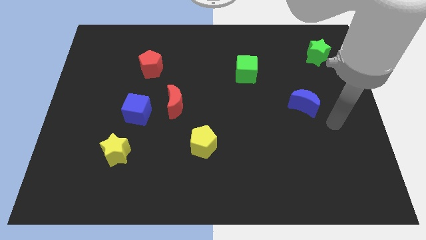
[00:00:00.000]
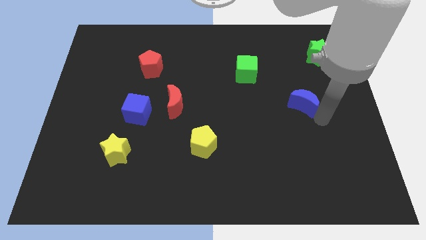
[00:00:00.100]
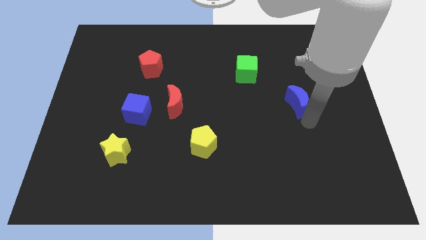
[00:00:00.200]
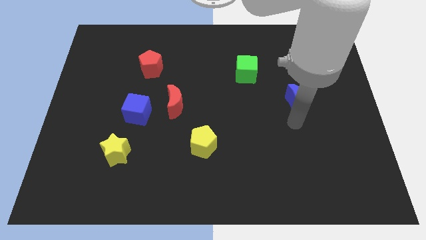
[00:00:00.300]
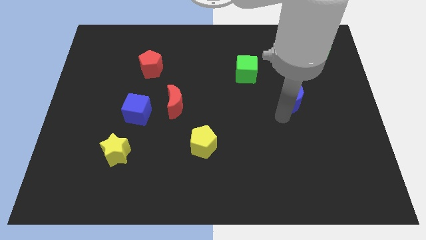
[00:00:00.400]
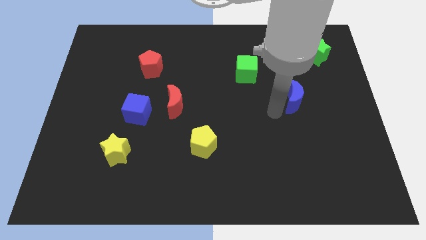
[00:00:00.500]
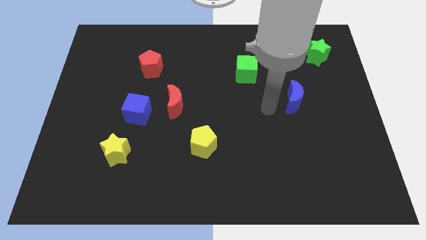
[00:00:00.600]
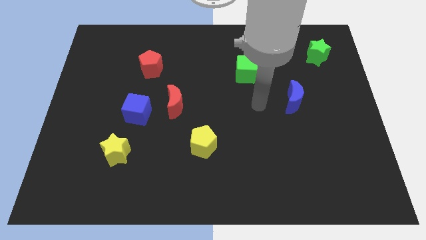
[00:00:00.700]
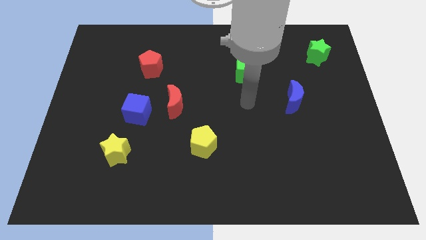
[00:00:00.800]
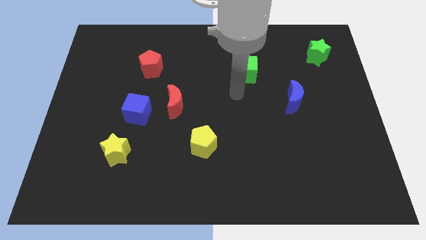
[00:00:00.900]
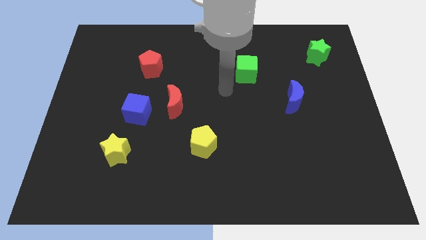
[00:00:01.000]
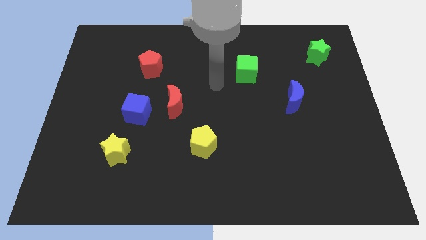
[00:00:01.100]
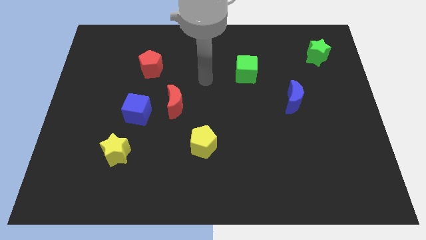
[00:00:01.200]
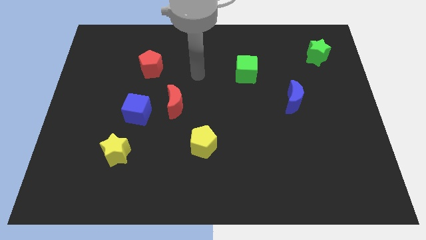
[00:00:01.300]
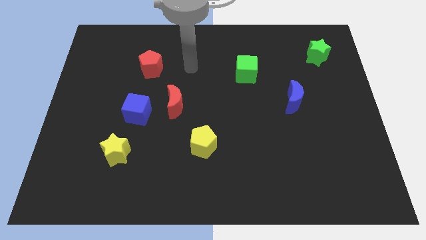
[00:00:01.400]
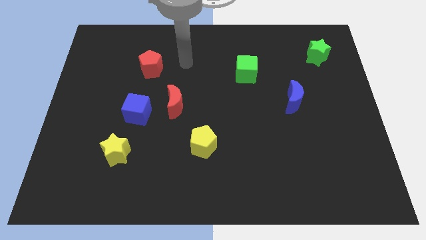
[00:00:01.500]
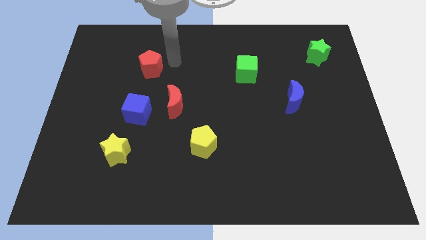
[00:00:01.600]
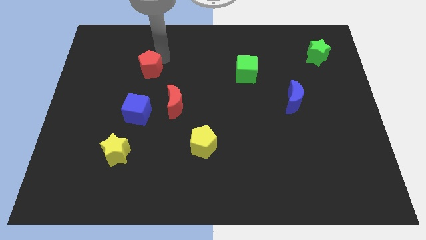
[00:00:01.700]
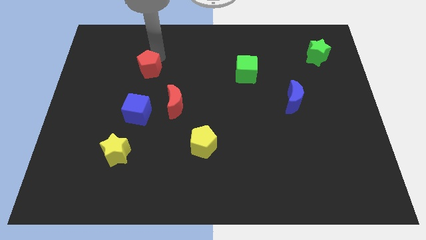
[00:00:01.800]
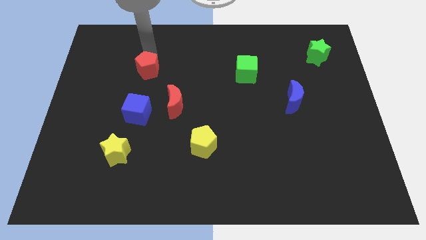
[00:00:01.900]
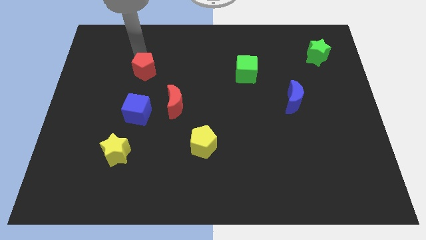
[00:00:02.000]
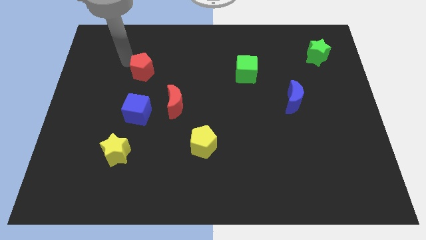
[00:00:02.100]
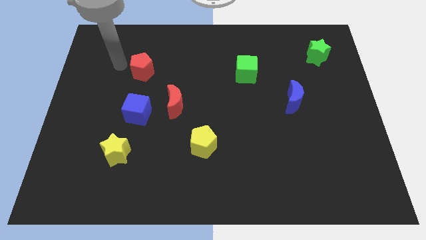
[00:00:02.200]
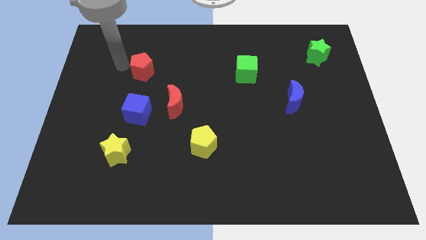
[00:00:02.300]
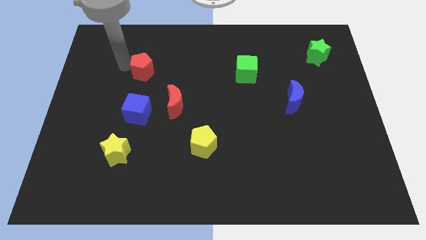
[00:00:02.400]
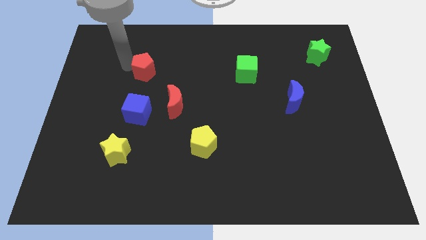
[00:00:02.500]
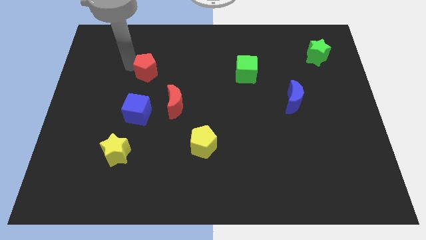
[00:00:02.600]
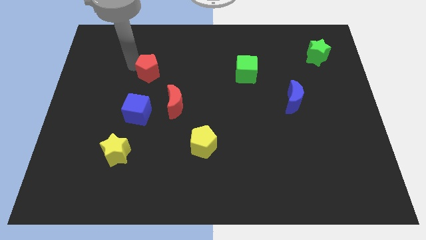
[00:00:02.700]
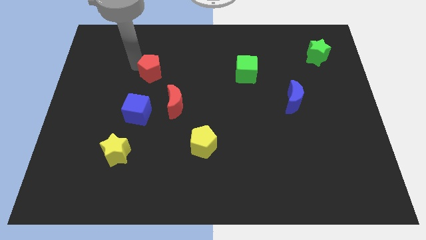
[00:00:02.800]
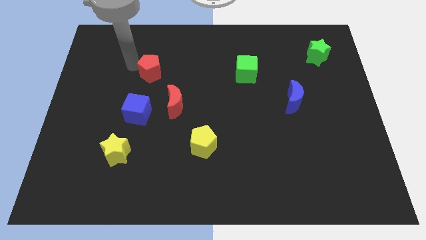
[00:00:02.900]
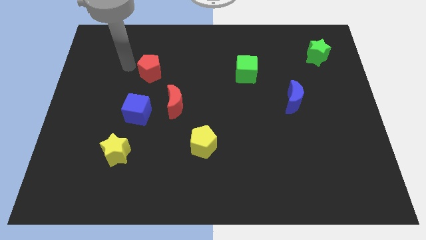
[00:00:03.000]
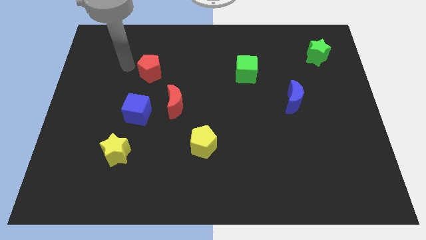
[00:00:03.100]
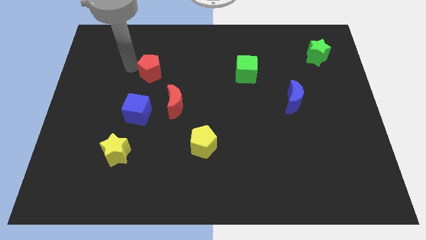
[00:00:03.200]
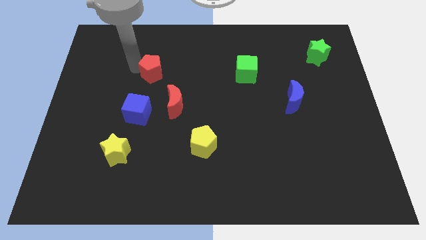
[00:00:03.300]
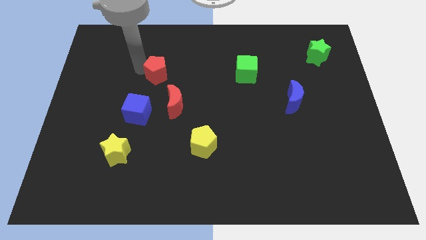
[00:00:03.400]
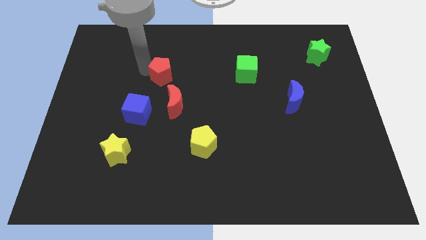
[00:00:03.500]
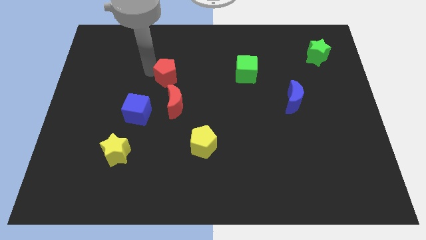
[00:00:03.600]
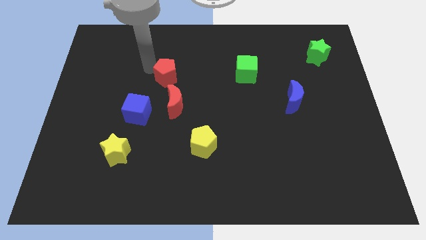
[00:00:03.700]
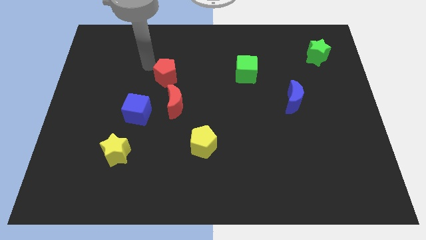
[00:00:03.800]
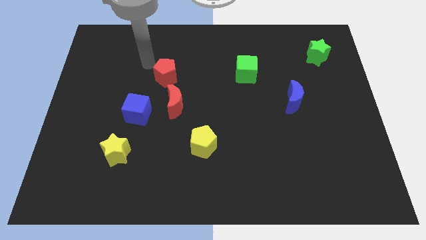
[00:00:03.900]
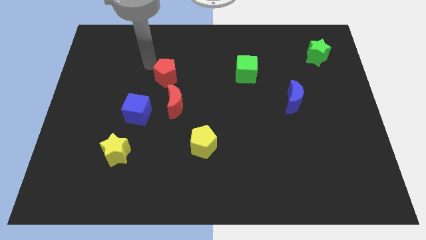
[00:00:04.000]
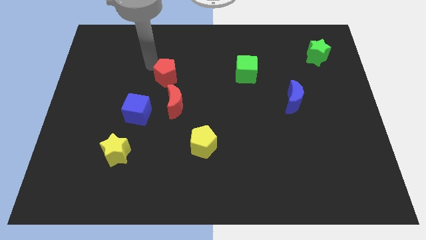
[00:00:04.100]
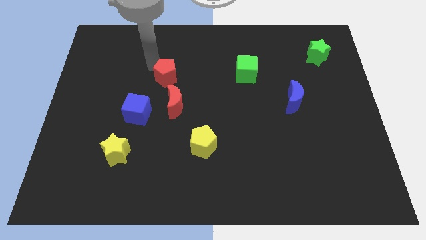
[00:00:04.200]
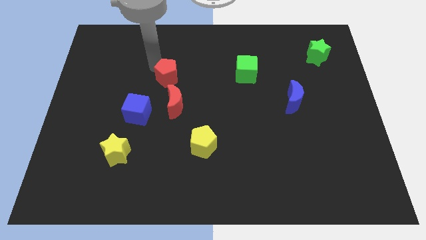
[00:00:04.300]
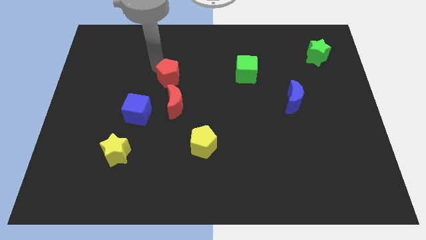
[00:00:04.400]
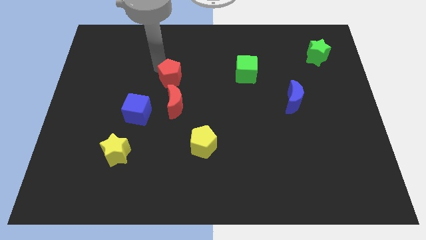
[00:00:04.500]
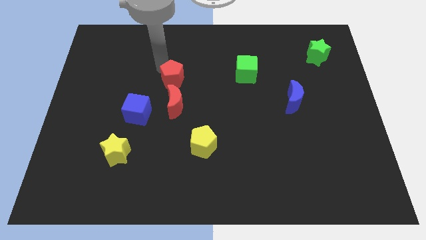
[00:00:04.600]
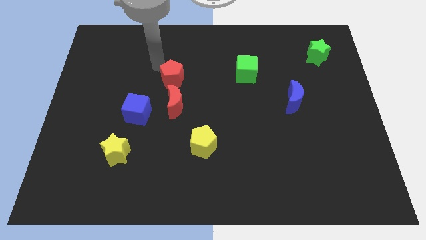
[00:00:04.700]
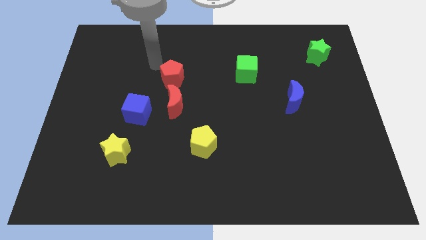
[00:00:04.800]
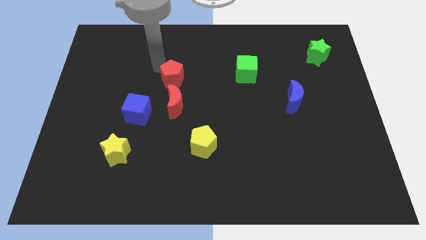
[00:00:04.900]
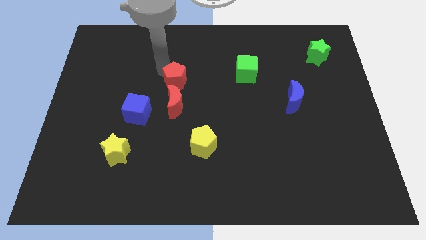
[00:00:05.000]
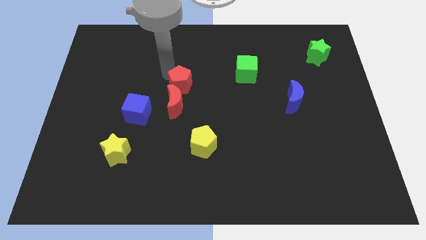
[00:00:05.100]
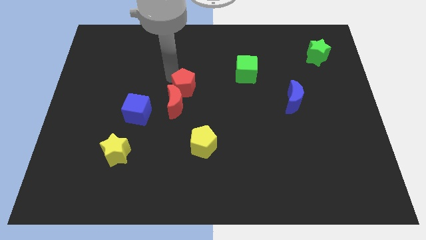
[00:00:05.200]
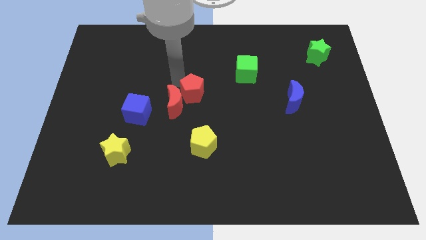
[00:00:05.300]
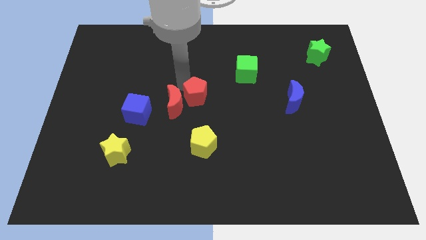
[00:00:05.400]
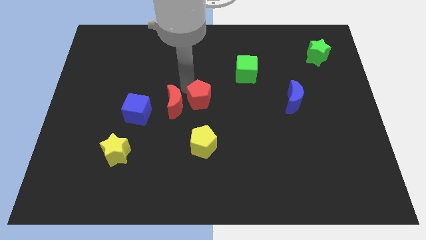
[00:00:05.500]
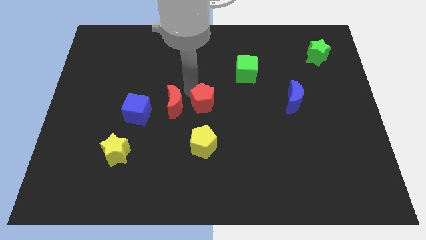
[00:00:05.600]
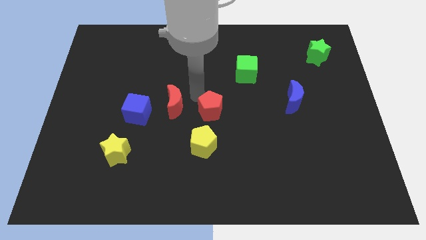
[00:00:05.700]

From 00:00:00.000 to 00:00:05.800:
move the red pentagon down and then right

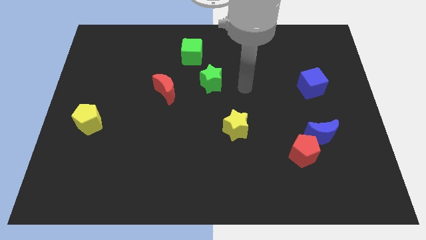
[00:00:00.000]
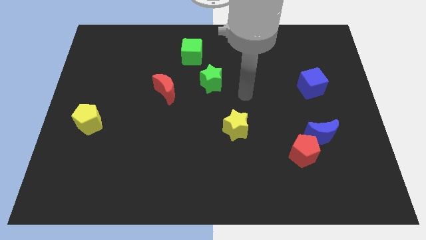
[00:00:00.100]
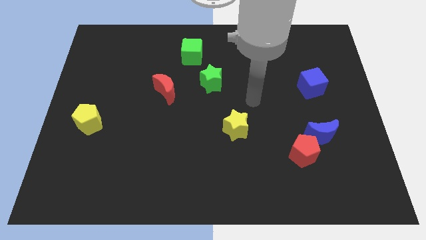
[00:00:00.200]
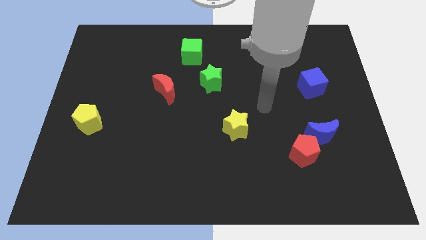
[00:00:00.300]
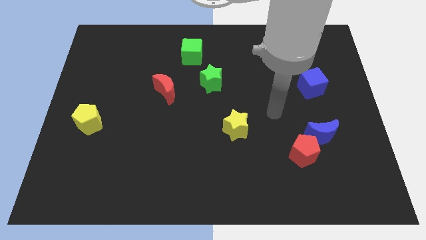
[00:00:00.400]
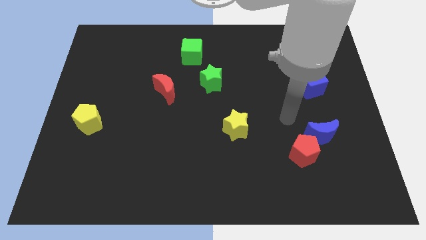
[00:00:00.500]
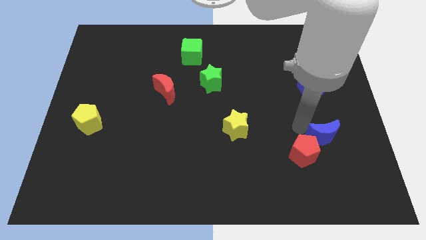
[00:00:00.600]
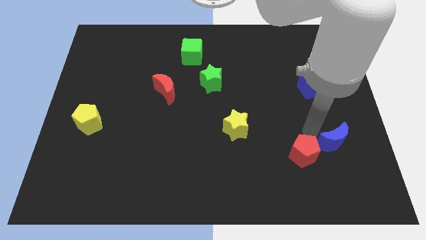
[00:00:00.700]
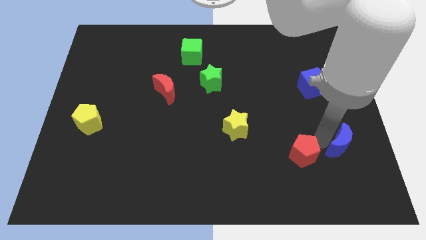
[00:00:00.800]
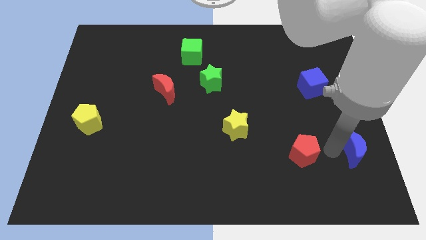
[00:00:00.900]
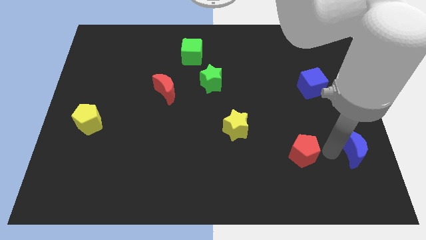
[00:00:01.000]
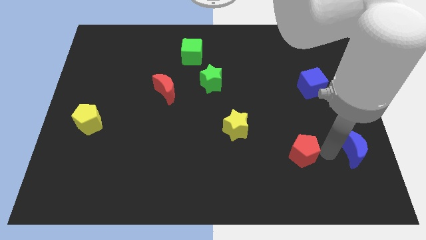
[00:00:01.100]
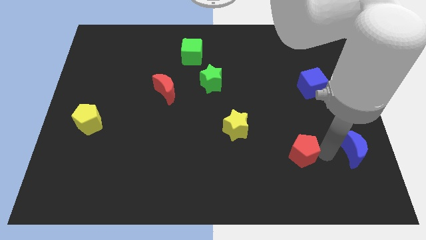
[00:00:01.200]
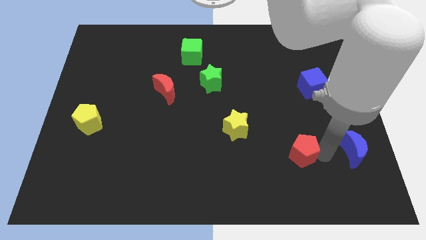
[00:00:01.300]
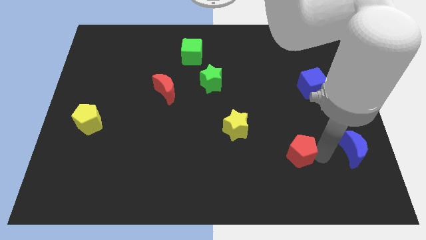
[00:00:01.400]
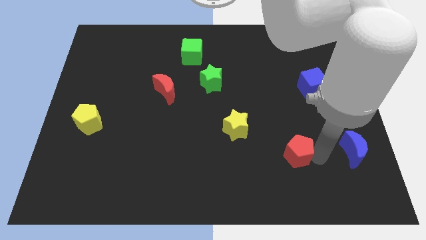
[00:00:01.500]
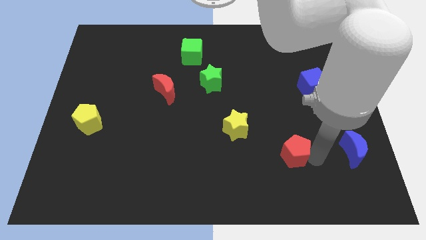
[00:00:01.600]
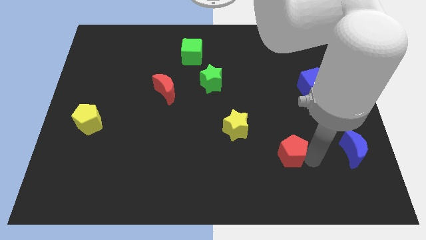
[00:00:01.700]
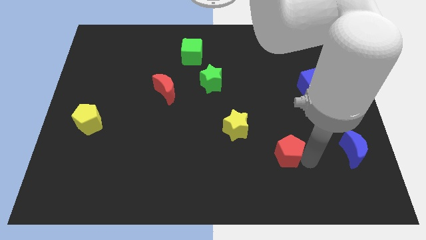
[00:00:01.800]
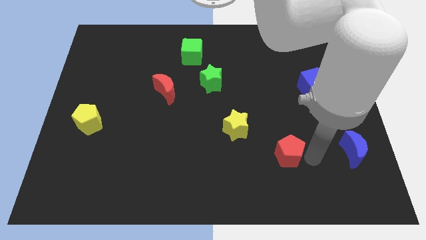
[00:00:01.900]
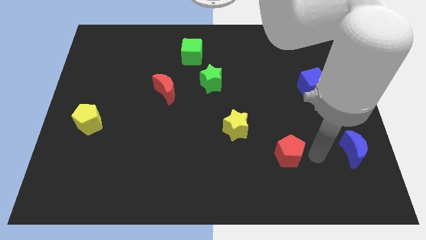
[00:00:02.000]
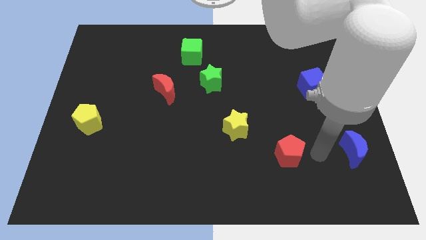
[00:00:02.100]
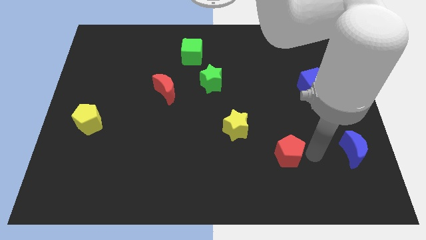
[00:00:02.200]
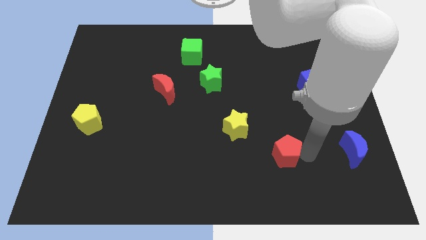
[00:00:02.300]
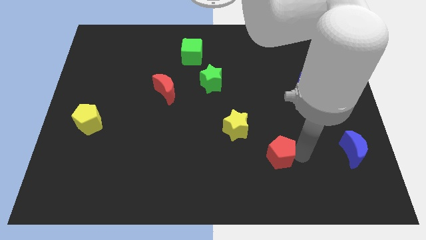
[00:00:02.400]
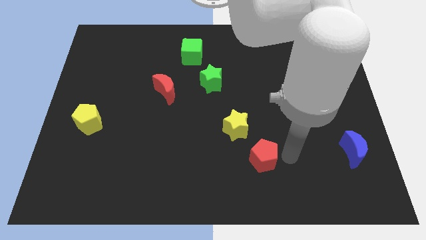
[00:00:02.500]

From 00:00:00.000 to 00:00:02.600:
slide the red pentagon a little bit left
